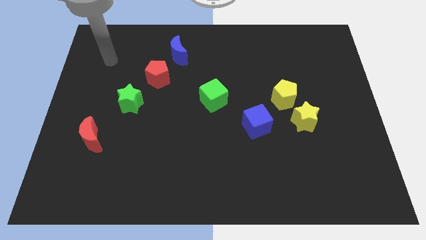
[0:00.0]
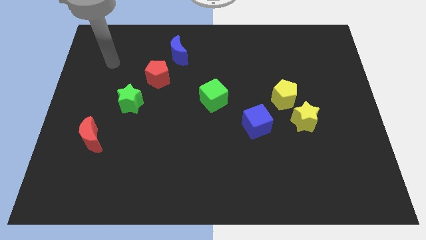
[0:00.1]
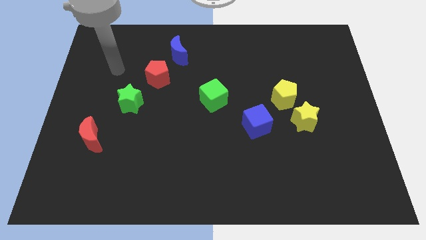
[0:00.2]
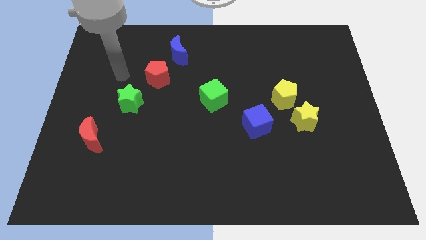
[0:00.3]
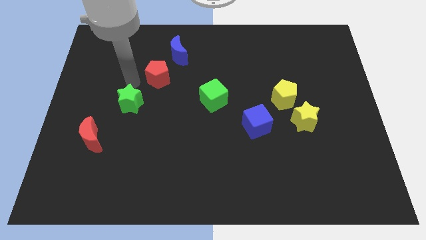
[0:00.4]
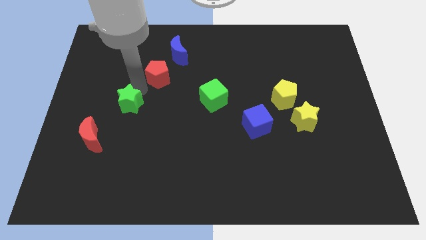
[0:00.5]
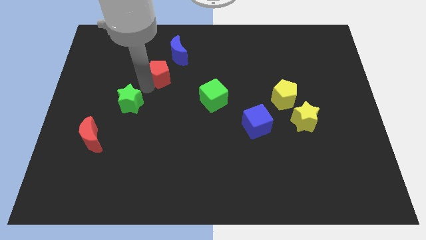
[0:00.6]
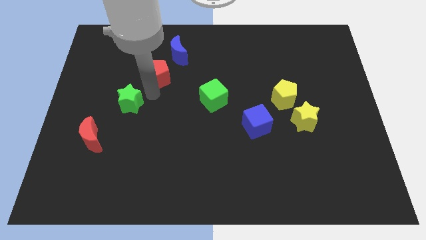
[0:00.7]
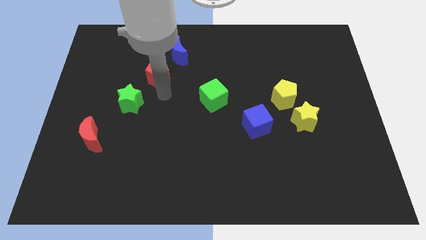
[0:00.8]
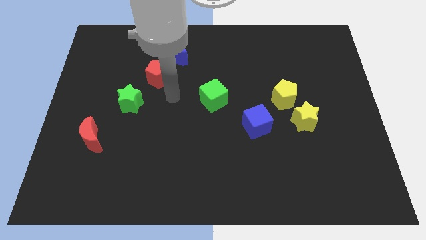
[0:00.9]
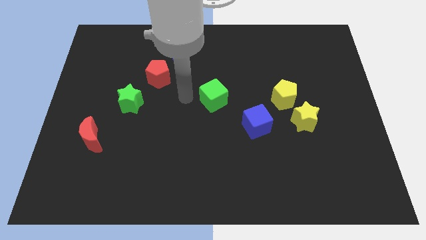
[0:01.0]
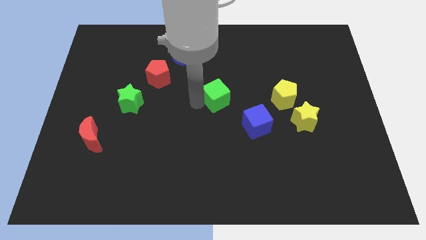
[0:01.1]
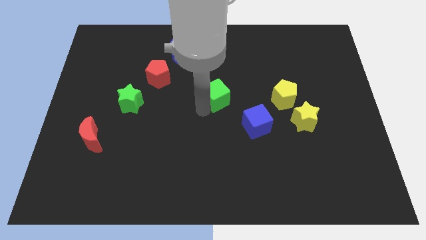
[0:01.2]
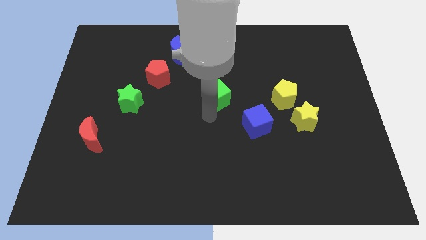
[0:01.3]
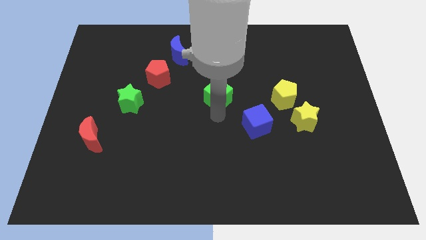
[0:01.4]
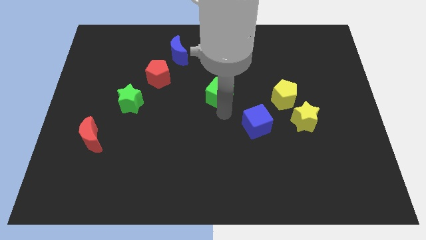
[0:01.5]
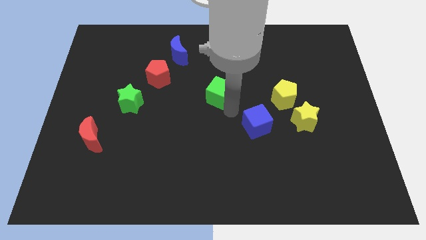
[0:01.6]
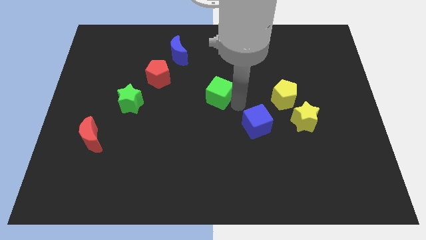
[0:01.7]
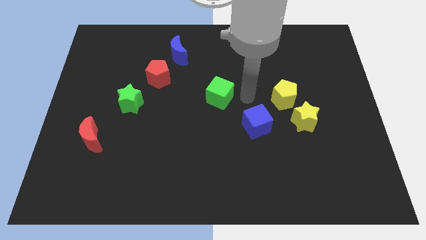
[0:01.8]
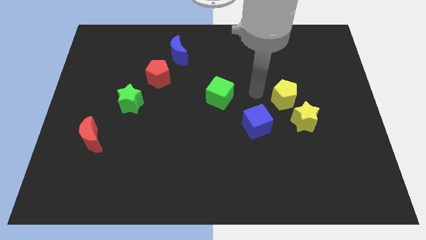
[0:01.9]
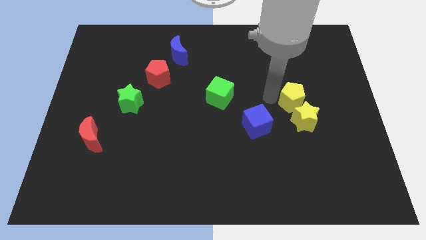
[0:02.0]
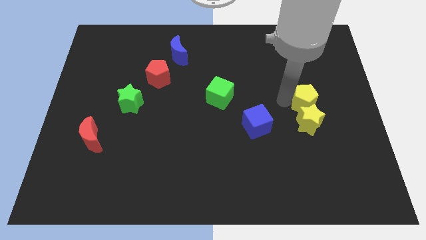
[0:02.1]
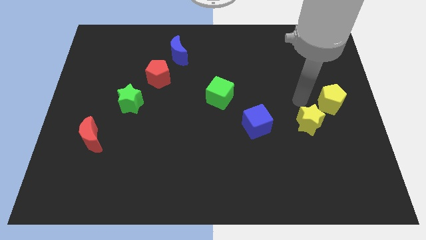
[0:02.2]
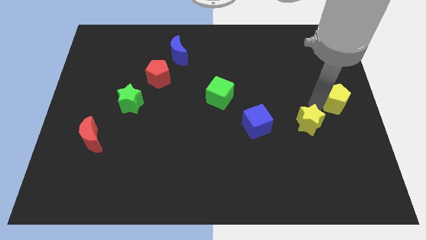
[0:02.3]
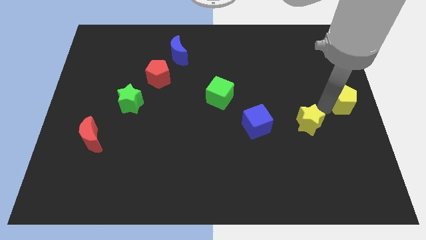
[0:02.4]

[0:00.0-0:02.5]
separate the yellow star from the yellow pentagon

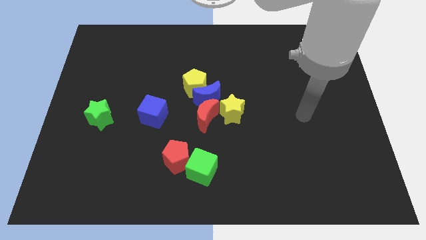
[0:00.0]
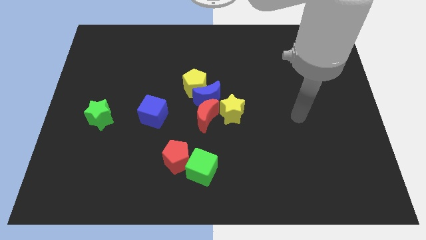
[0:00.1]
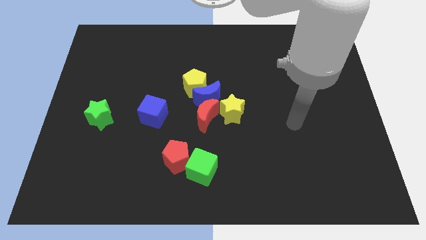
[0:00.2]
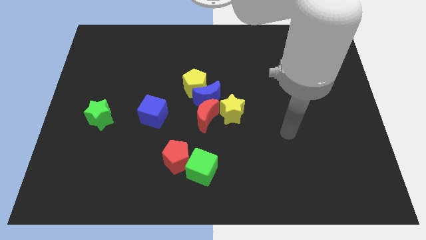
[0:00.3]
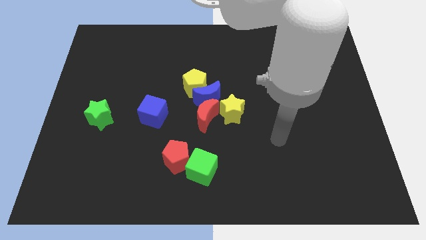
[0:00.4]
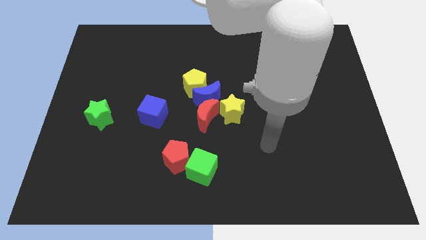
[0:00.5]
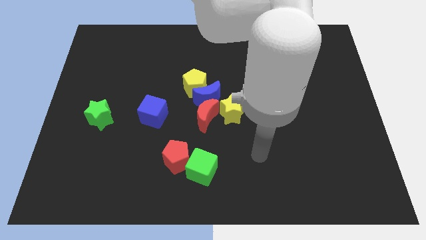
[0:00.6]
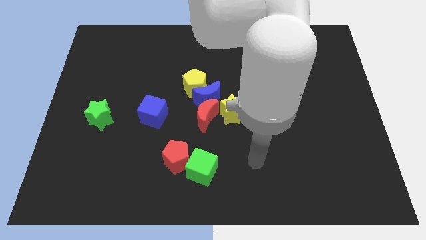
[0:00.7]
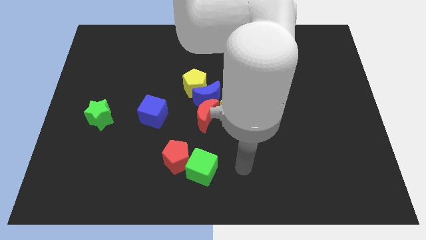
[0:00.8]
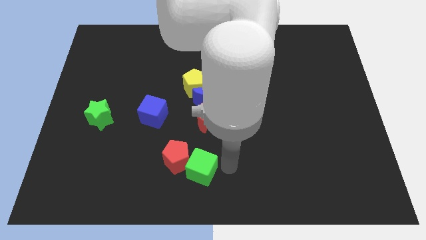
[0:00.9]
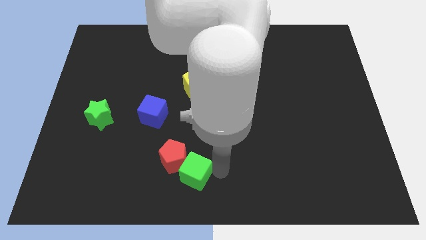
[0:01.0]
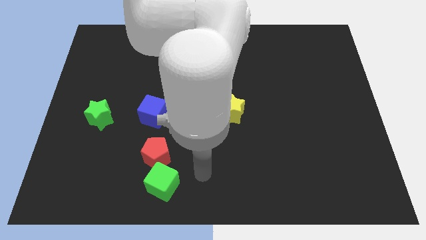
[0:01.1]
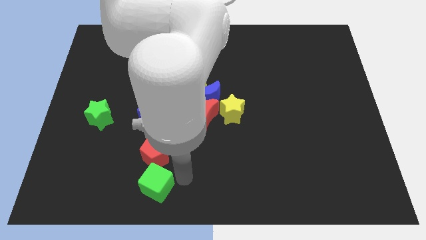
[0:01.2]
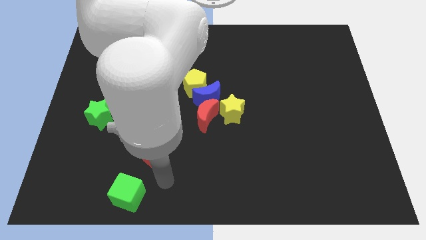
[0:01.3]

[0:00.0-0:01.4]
pull the red pentagon apart from the green cube

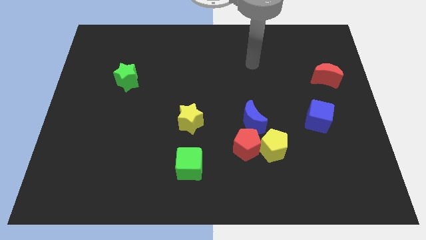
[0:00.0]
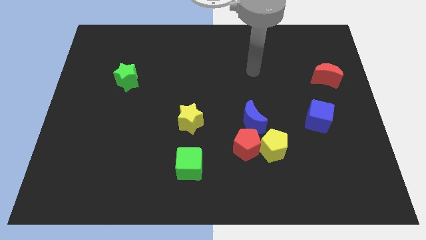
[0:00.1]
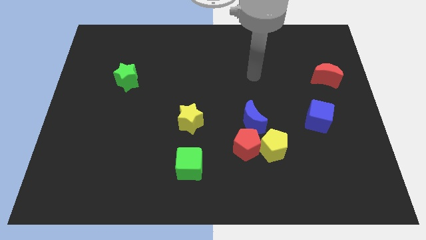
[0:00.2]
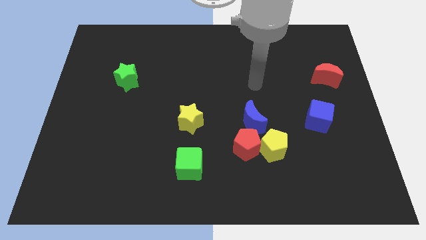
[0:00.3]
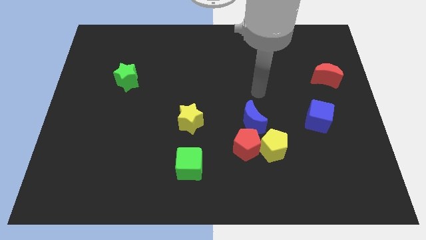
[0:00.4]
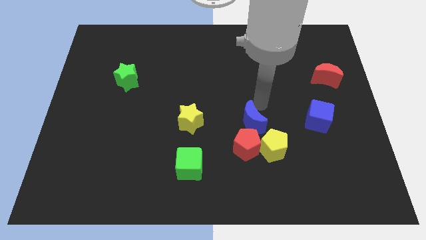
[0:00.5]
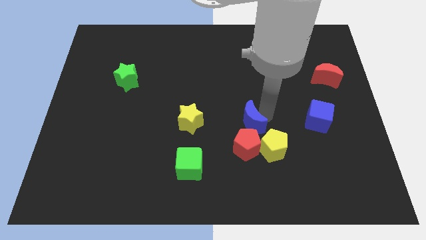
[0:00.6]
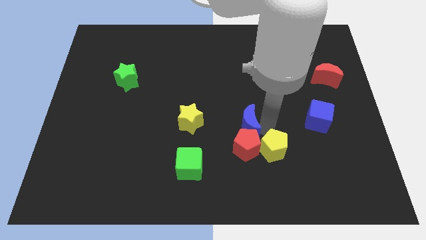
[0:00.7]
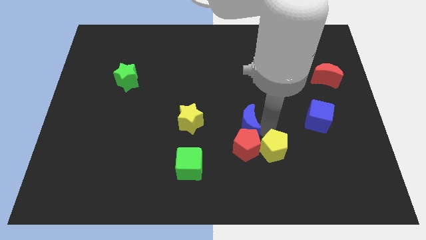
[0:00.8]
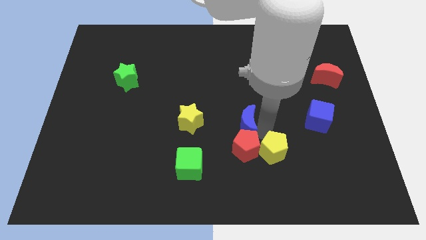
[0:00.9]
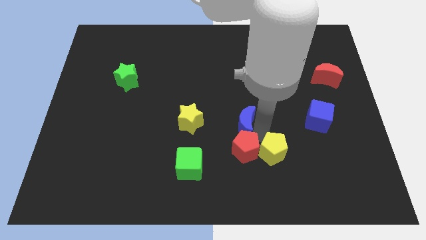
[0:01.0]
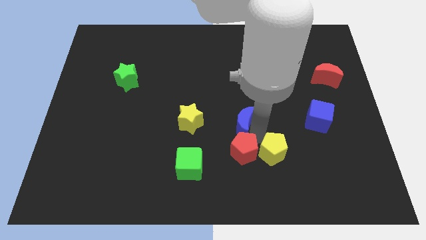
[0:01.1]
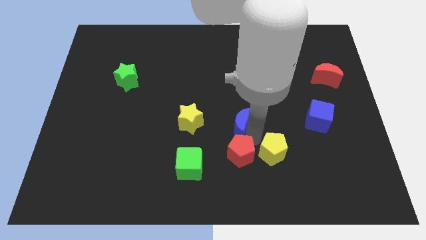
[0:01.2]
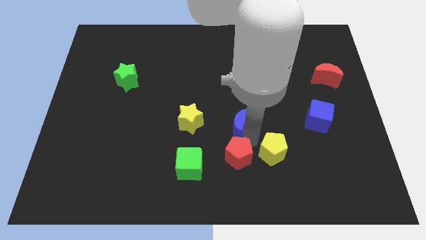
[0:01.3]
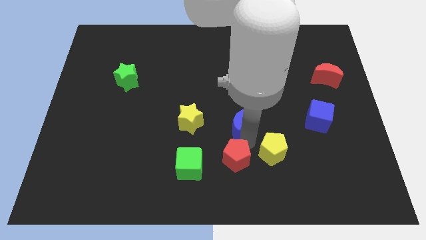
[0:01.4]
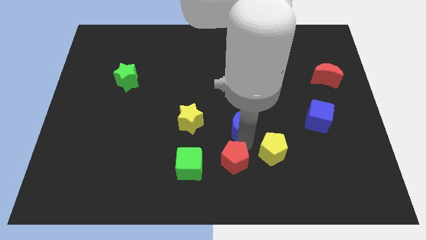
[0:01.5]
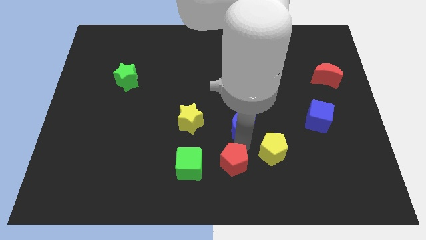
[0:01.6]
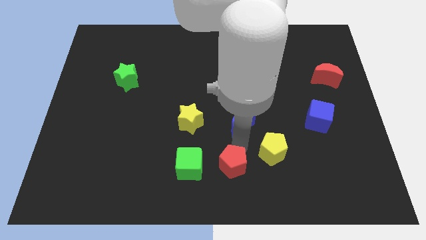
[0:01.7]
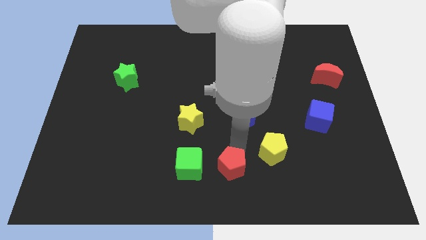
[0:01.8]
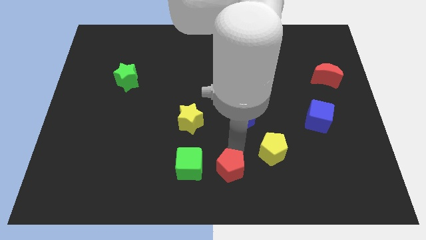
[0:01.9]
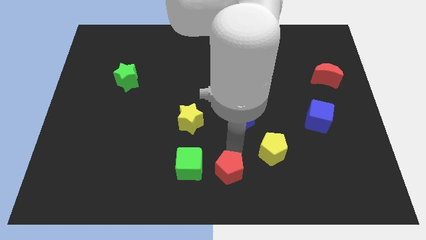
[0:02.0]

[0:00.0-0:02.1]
pull the red pentagon apart from the yellow pentagon and blue moon

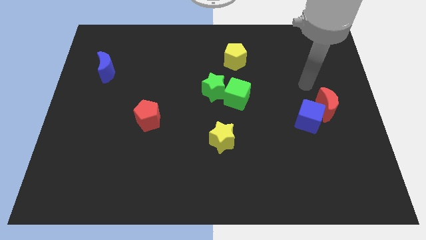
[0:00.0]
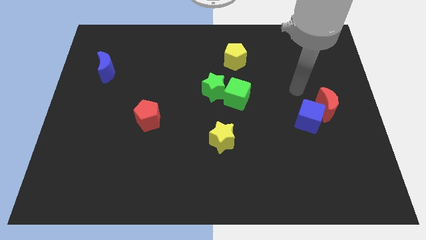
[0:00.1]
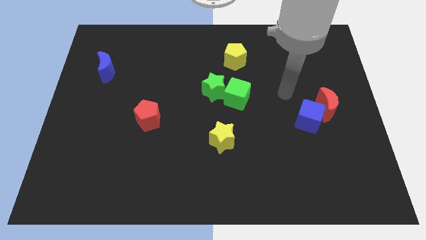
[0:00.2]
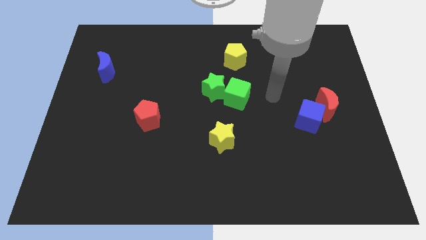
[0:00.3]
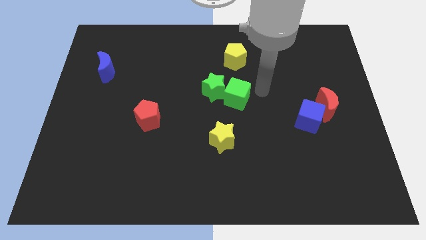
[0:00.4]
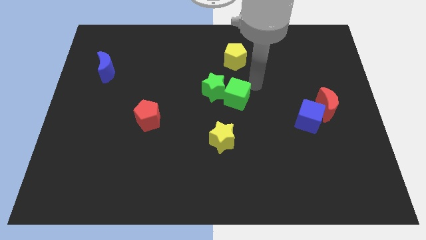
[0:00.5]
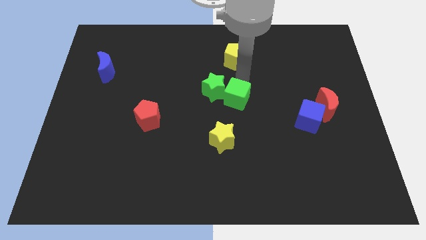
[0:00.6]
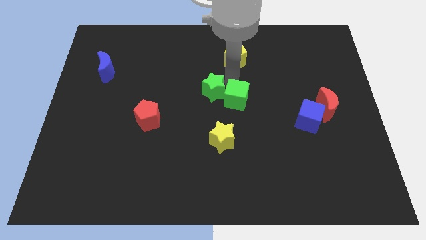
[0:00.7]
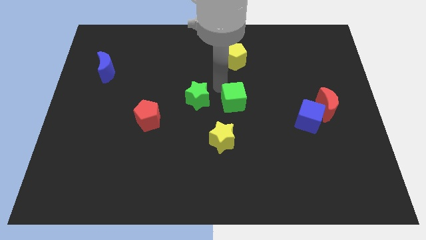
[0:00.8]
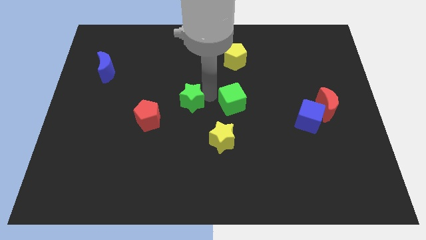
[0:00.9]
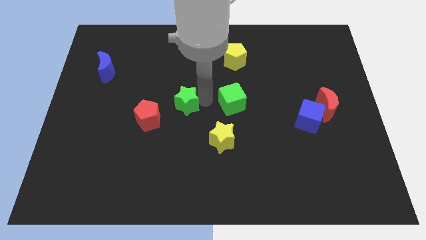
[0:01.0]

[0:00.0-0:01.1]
separate the green cube from the green star

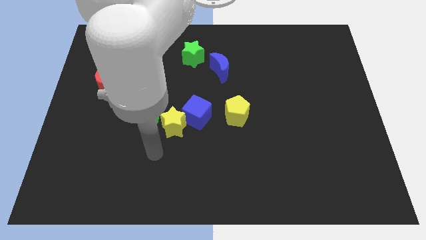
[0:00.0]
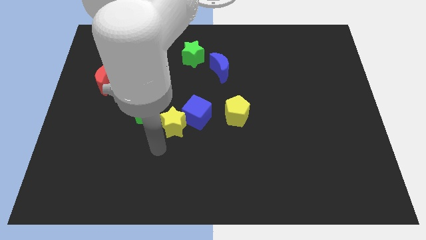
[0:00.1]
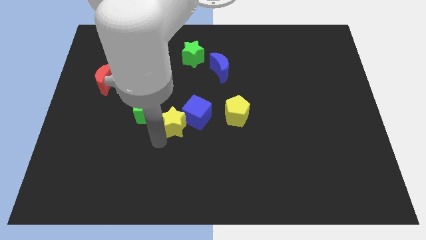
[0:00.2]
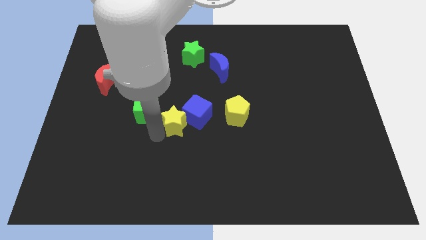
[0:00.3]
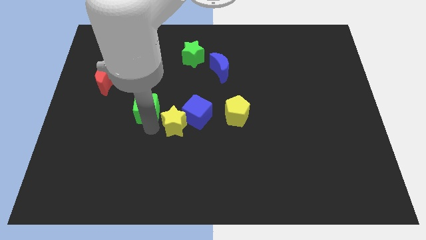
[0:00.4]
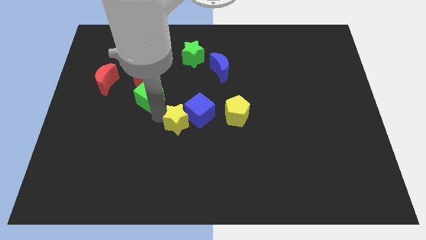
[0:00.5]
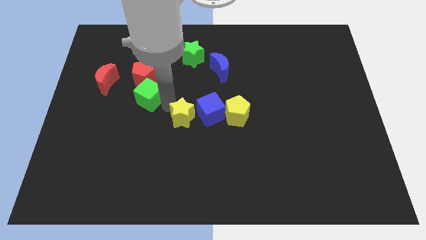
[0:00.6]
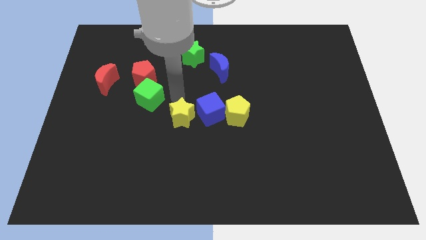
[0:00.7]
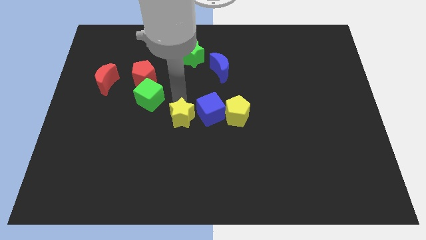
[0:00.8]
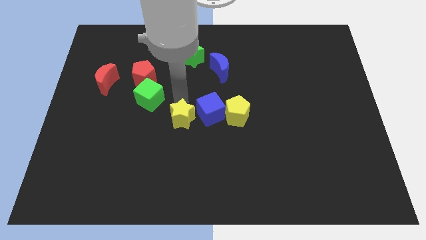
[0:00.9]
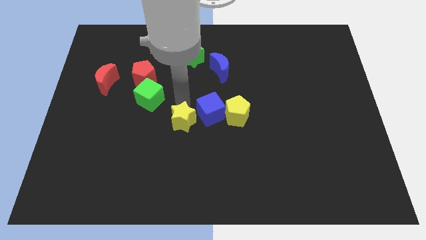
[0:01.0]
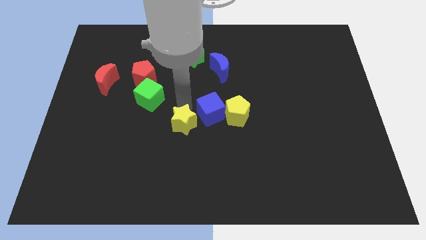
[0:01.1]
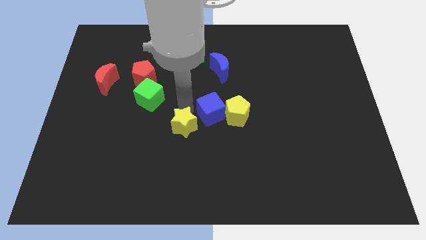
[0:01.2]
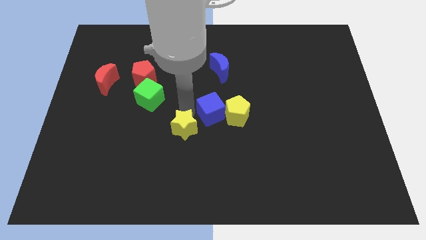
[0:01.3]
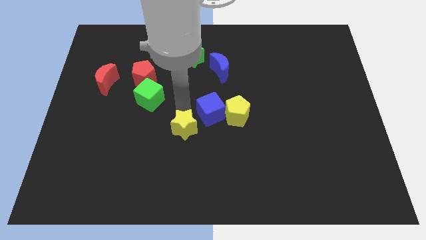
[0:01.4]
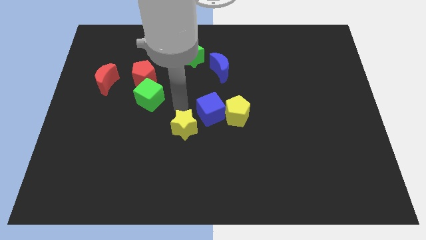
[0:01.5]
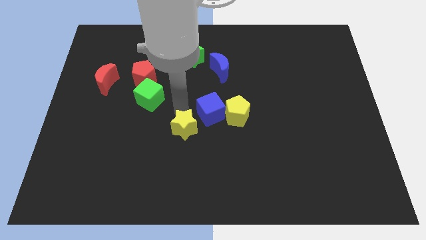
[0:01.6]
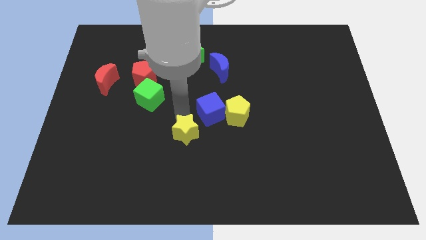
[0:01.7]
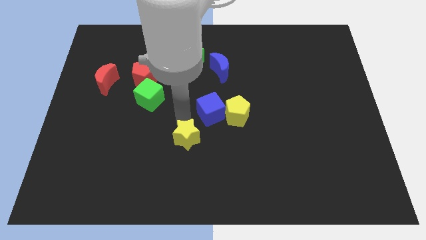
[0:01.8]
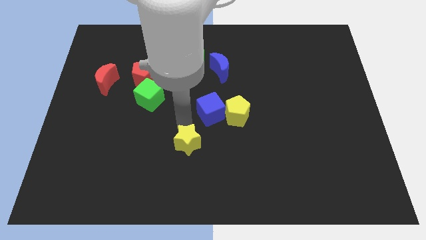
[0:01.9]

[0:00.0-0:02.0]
pull the yellow star apart from the blue cube and green cube

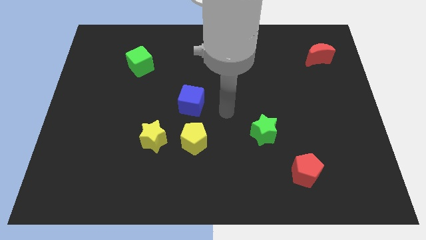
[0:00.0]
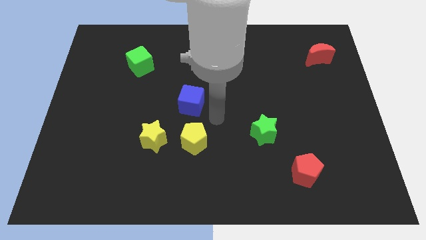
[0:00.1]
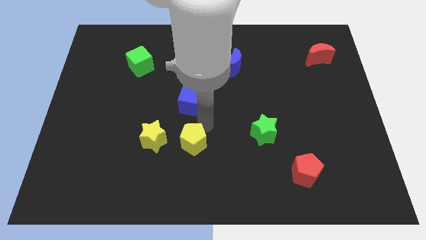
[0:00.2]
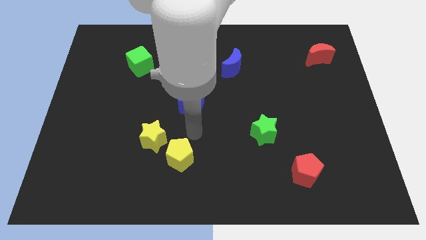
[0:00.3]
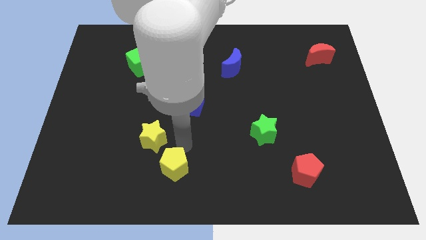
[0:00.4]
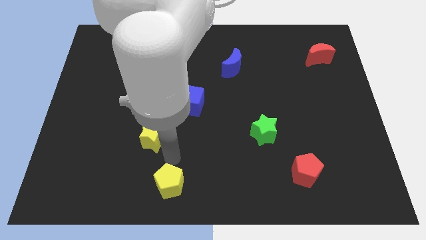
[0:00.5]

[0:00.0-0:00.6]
move the yellow star away from the yellow pentagon
